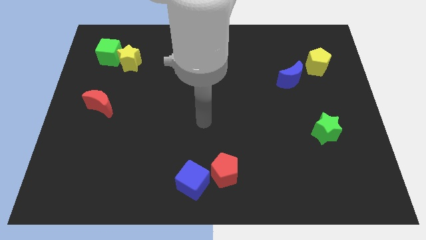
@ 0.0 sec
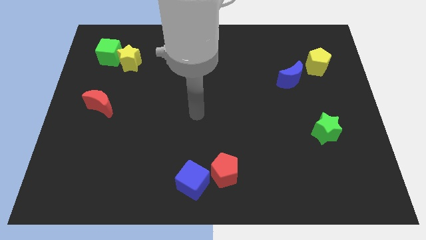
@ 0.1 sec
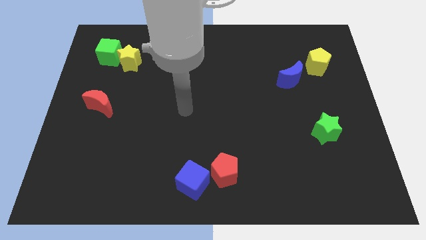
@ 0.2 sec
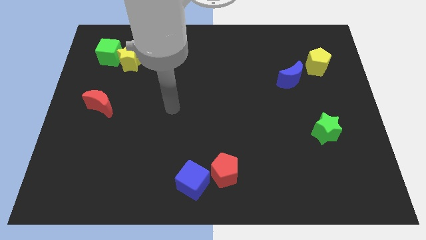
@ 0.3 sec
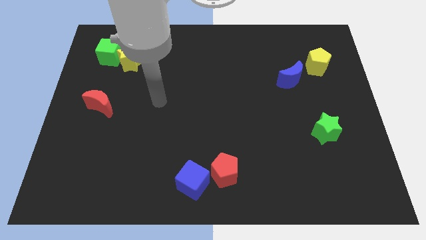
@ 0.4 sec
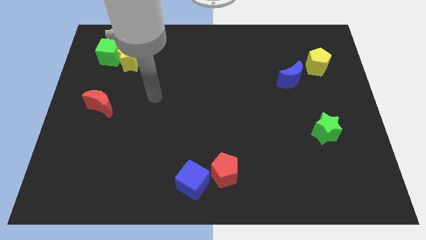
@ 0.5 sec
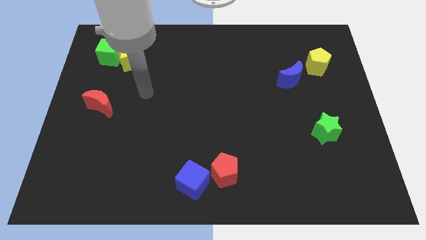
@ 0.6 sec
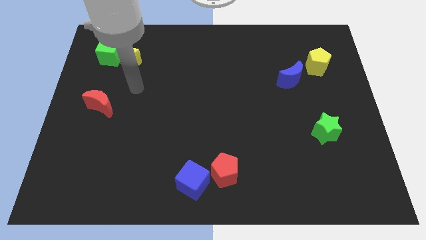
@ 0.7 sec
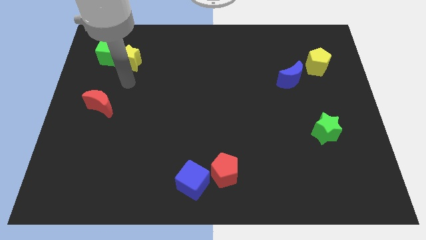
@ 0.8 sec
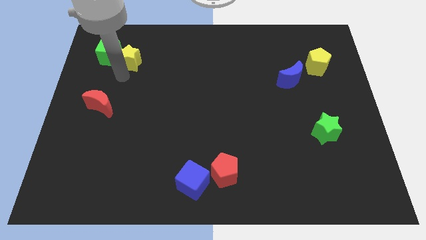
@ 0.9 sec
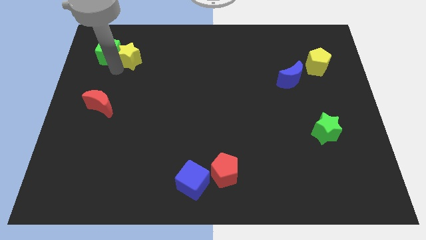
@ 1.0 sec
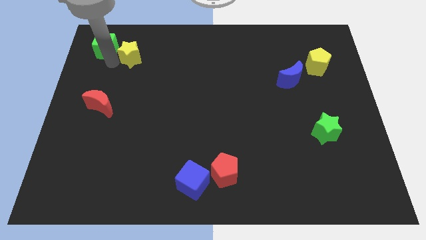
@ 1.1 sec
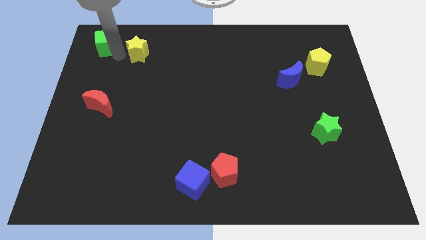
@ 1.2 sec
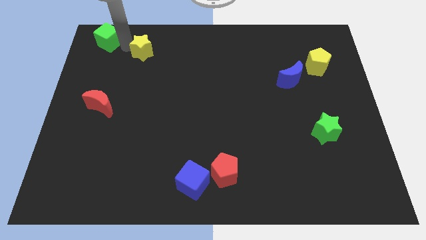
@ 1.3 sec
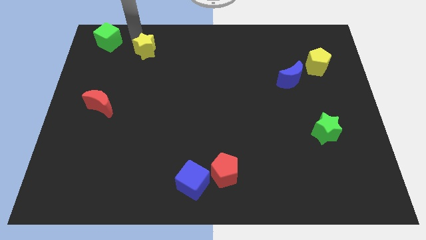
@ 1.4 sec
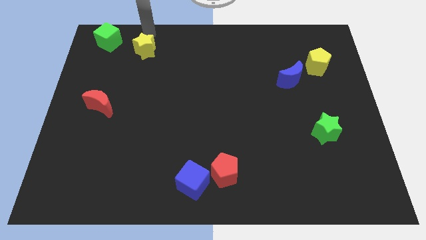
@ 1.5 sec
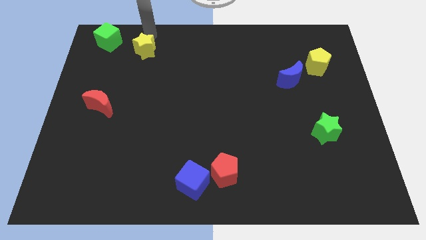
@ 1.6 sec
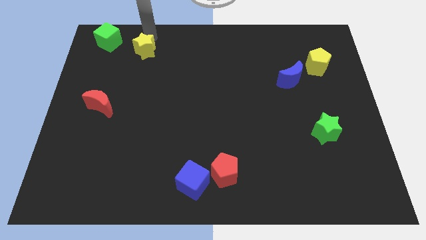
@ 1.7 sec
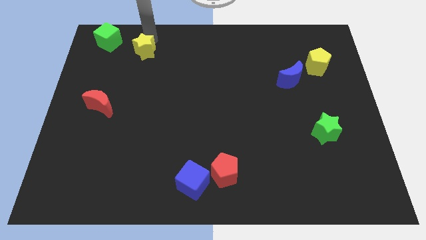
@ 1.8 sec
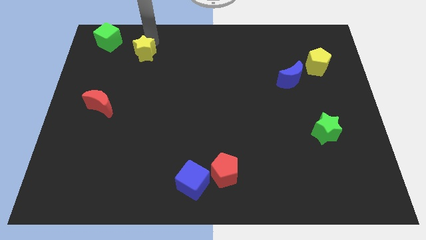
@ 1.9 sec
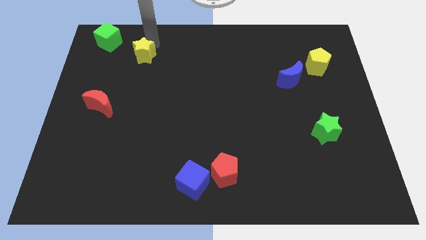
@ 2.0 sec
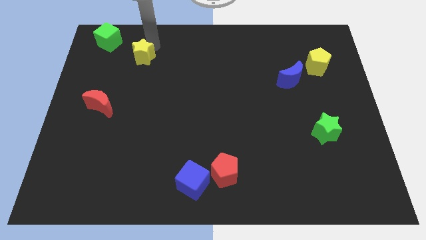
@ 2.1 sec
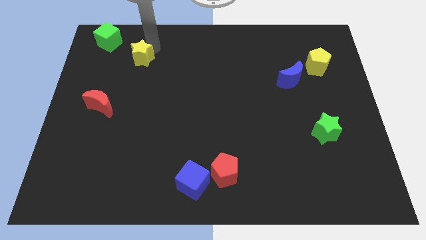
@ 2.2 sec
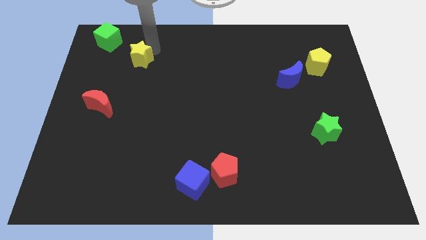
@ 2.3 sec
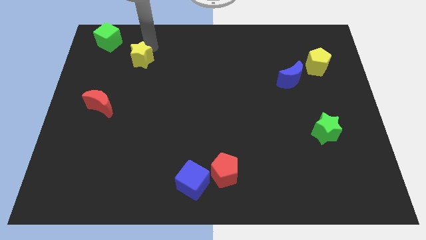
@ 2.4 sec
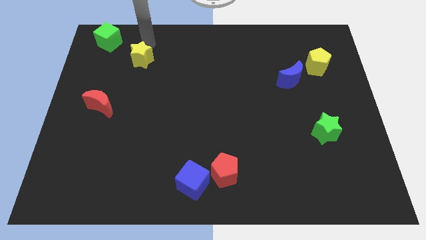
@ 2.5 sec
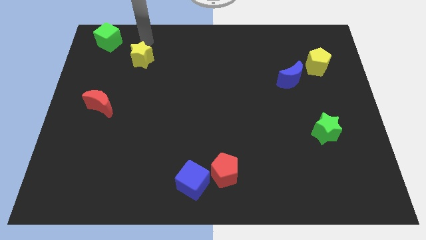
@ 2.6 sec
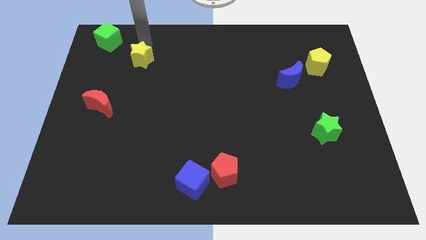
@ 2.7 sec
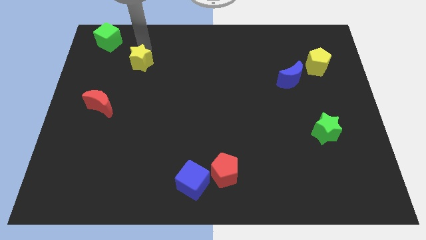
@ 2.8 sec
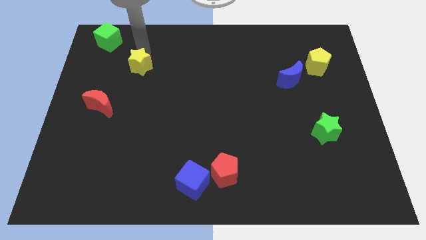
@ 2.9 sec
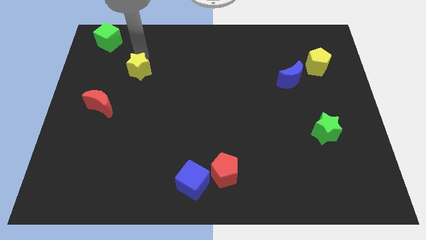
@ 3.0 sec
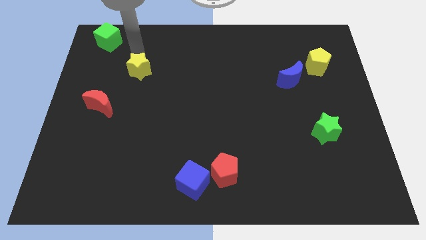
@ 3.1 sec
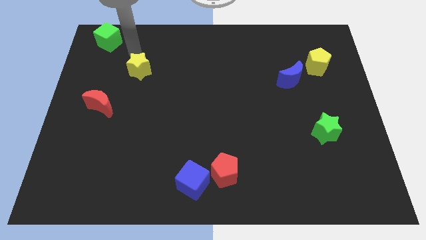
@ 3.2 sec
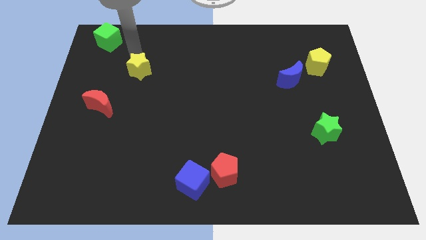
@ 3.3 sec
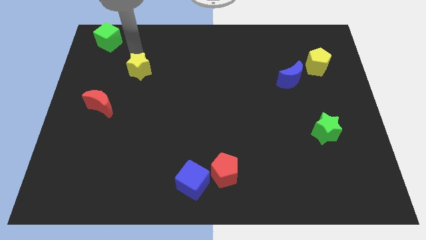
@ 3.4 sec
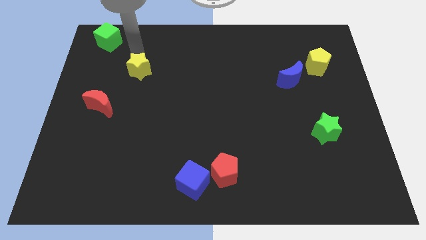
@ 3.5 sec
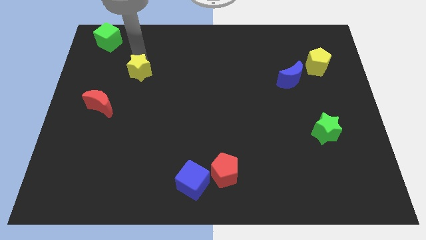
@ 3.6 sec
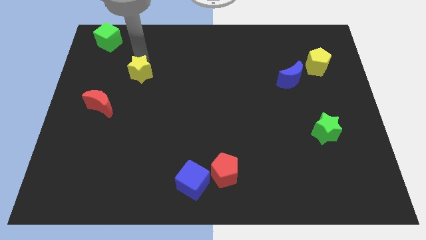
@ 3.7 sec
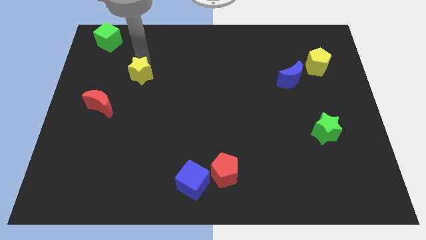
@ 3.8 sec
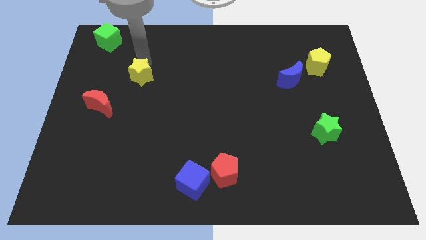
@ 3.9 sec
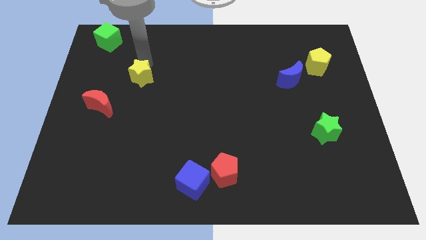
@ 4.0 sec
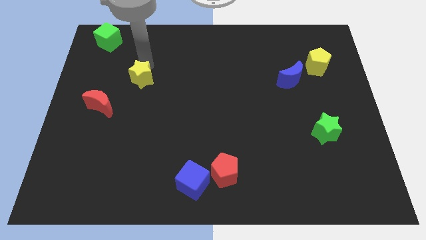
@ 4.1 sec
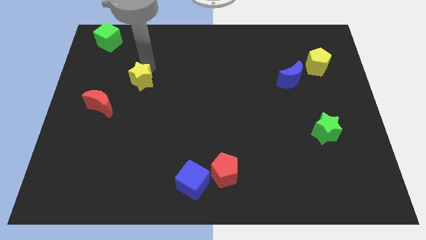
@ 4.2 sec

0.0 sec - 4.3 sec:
slide the yellow star downwards and then to the right a bit

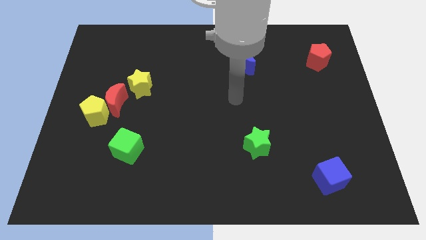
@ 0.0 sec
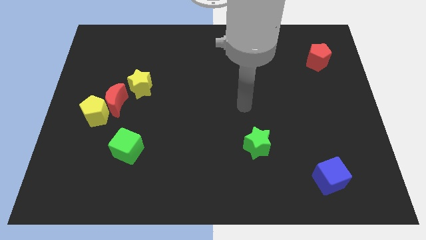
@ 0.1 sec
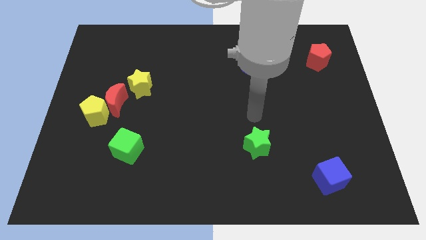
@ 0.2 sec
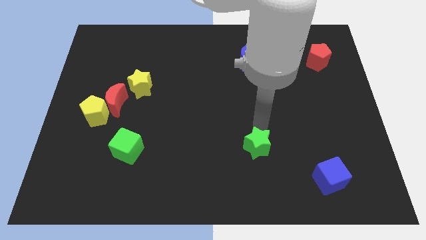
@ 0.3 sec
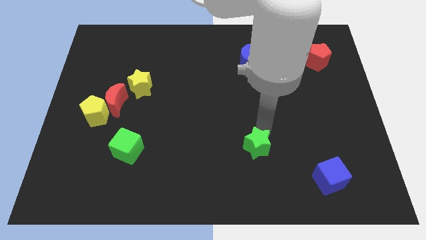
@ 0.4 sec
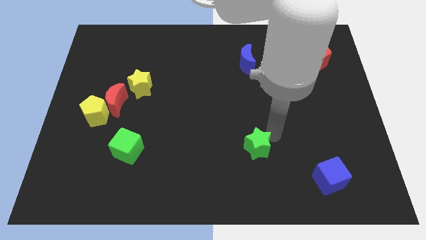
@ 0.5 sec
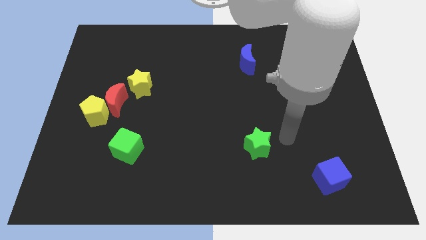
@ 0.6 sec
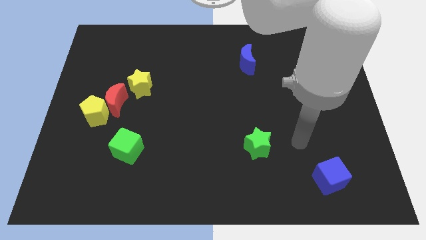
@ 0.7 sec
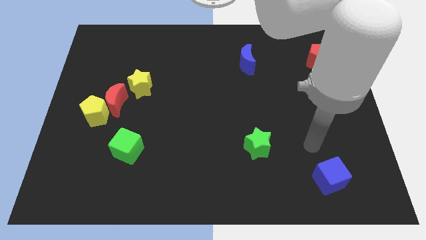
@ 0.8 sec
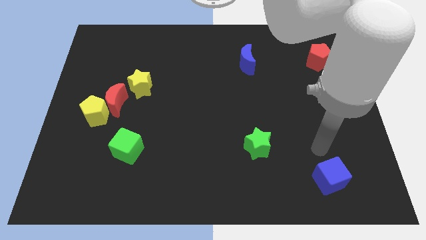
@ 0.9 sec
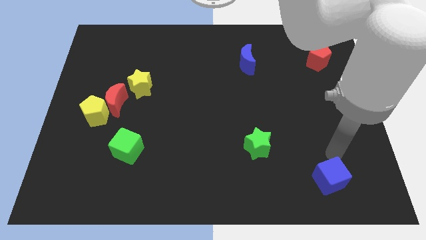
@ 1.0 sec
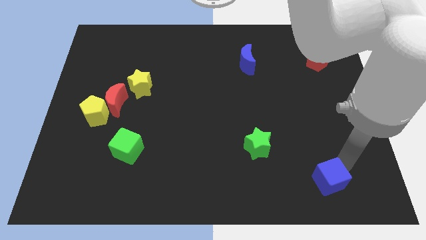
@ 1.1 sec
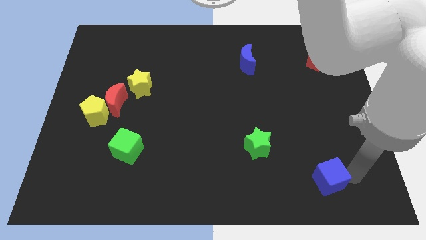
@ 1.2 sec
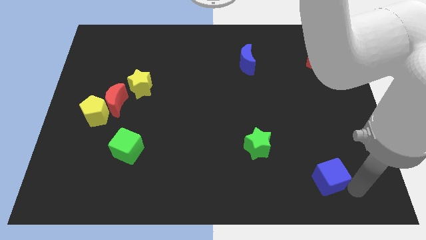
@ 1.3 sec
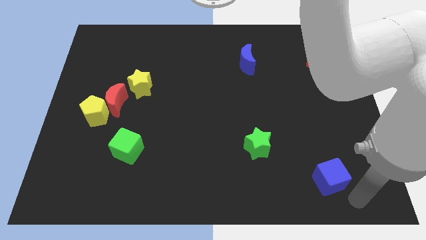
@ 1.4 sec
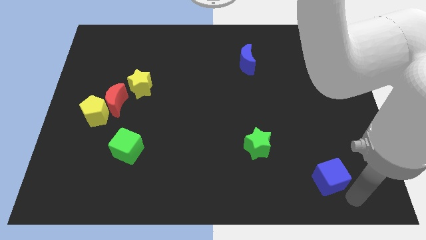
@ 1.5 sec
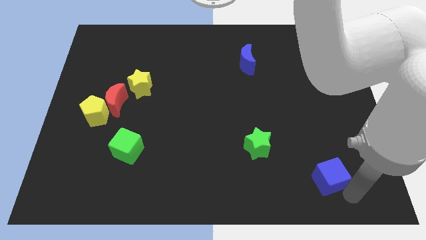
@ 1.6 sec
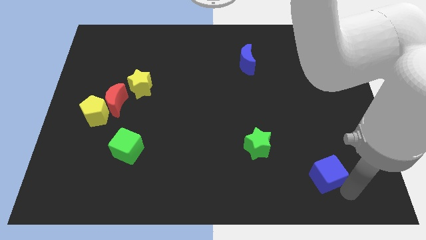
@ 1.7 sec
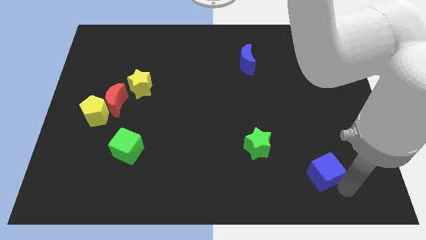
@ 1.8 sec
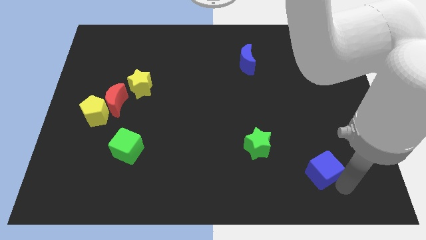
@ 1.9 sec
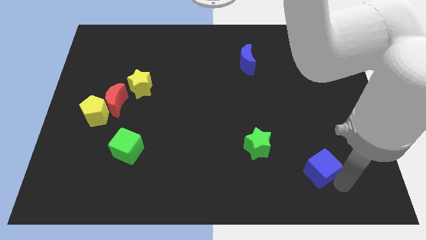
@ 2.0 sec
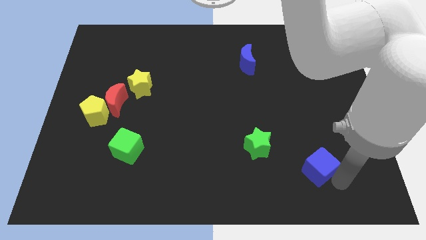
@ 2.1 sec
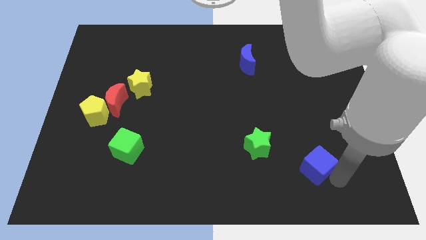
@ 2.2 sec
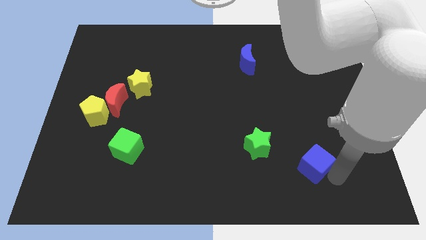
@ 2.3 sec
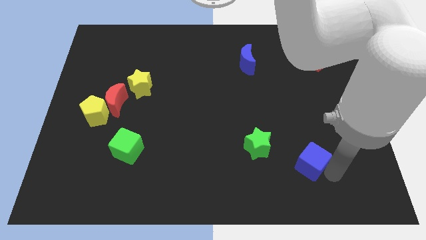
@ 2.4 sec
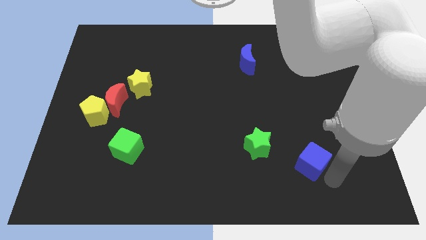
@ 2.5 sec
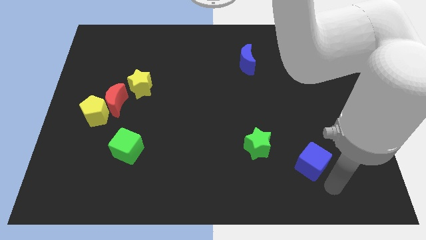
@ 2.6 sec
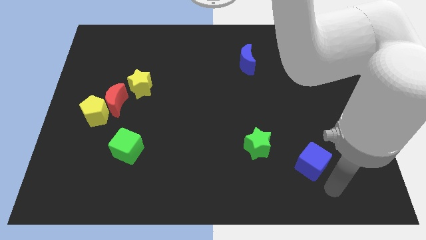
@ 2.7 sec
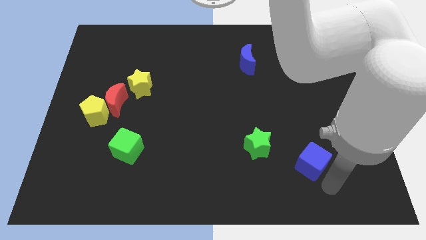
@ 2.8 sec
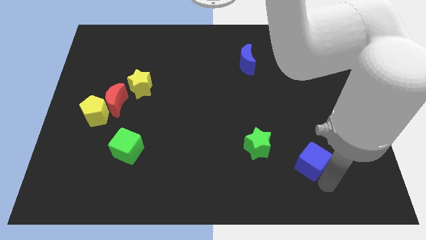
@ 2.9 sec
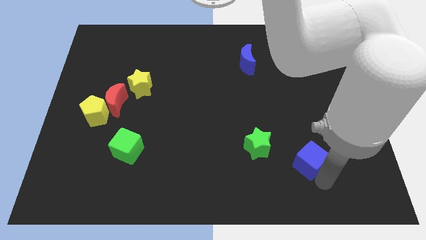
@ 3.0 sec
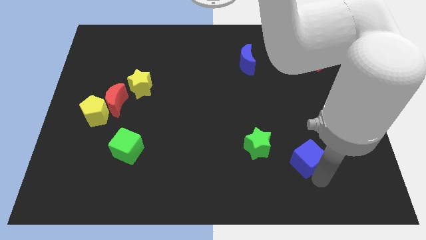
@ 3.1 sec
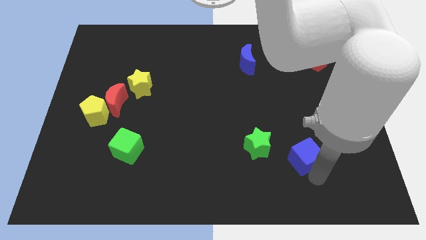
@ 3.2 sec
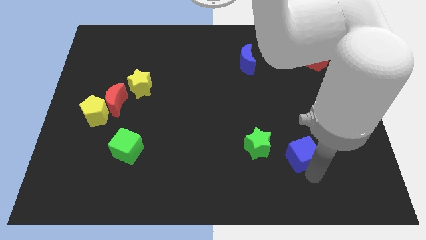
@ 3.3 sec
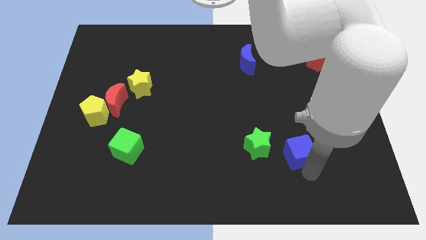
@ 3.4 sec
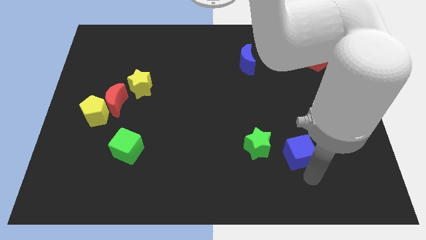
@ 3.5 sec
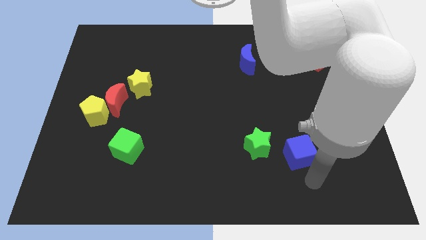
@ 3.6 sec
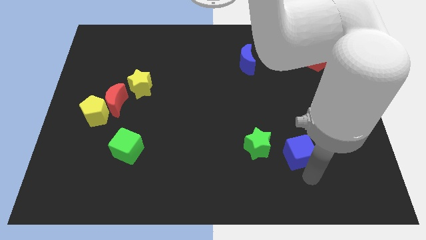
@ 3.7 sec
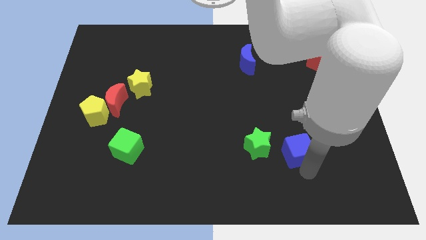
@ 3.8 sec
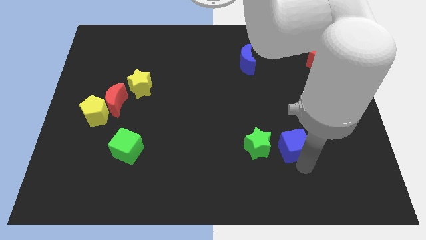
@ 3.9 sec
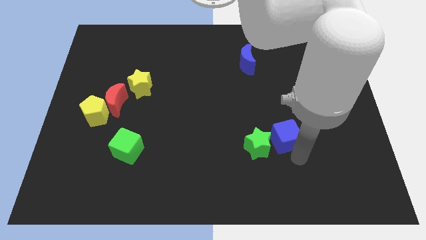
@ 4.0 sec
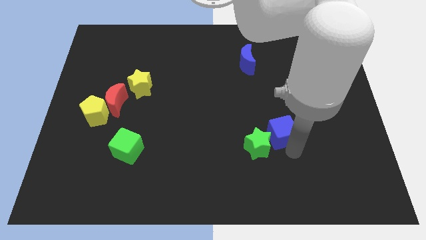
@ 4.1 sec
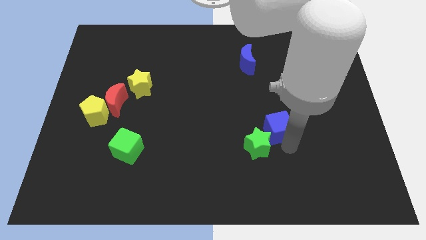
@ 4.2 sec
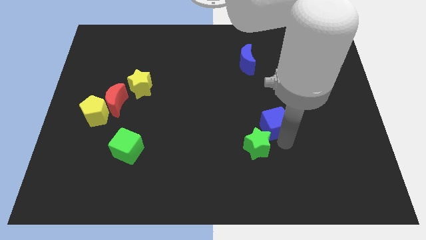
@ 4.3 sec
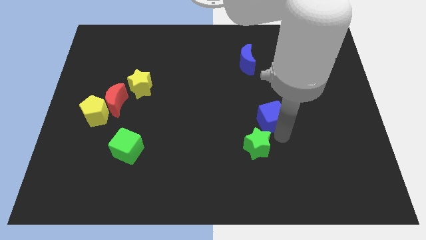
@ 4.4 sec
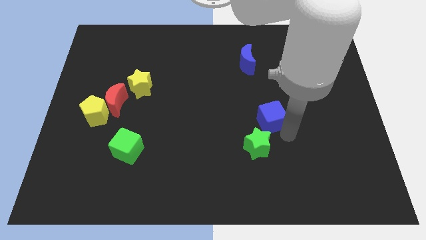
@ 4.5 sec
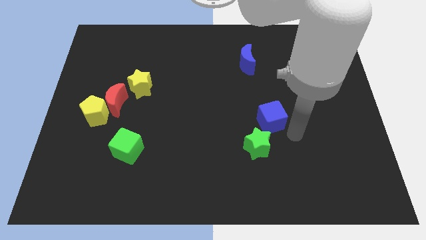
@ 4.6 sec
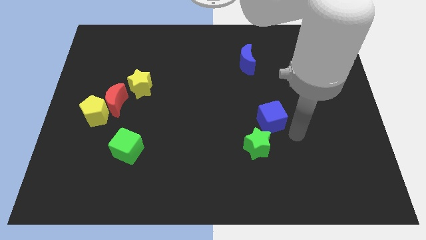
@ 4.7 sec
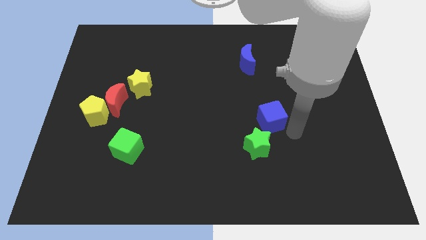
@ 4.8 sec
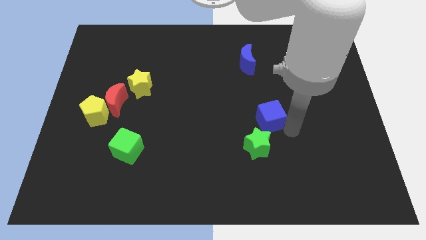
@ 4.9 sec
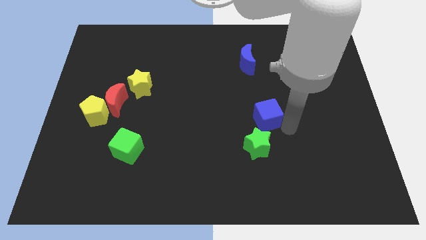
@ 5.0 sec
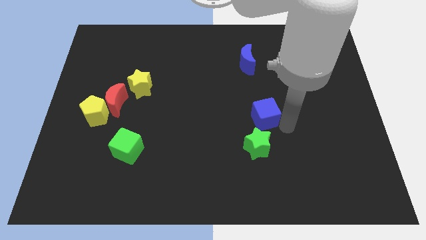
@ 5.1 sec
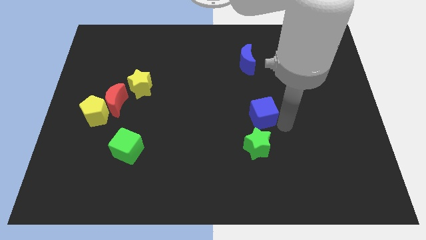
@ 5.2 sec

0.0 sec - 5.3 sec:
slide the blue cube up and left
